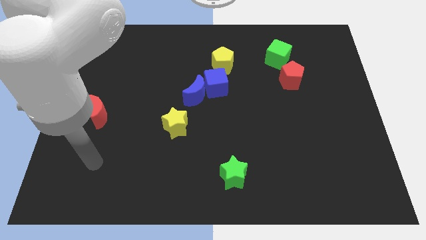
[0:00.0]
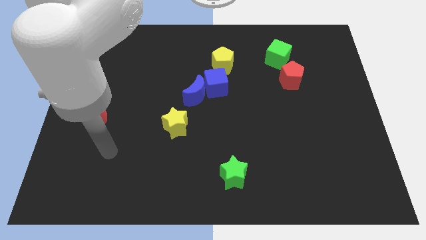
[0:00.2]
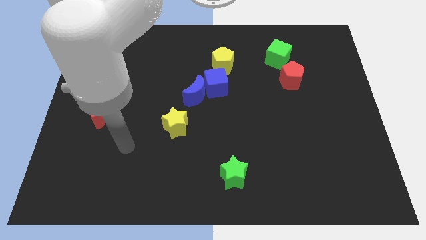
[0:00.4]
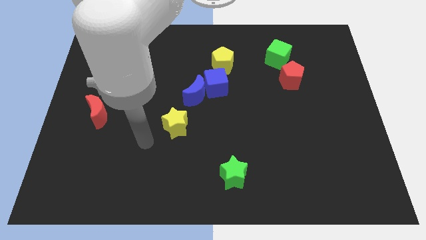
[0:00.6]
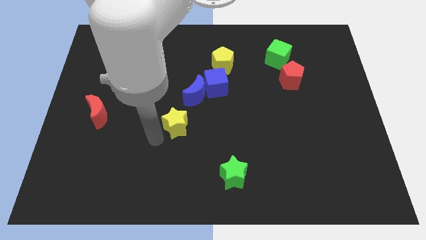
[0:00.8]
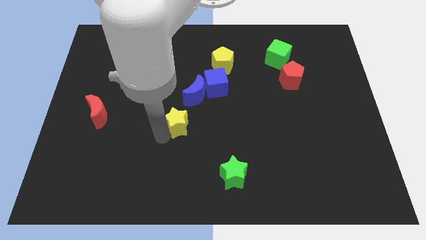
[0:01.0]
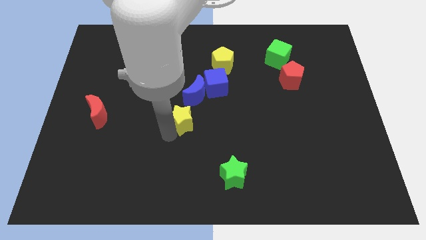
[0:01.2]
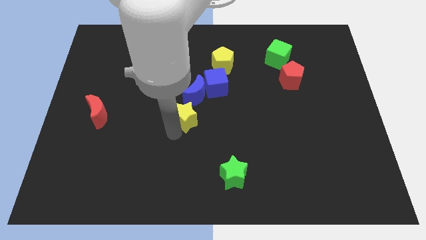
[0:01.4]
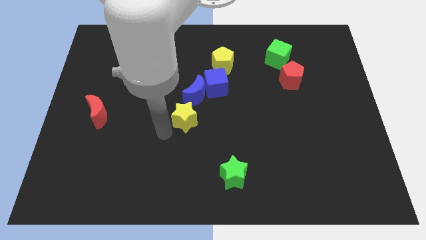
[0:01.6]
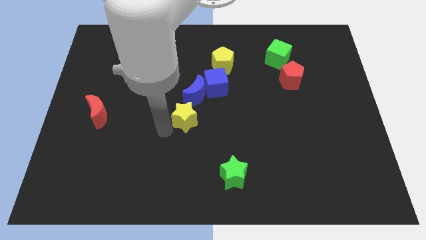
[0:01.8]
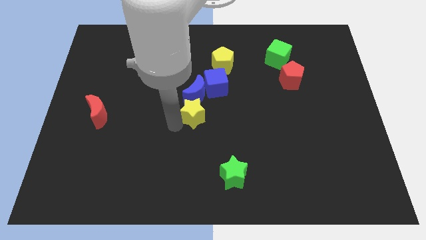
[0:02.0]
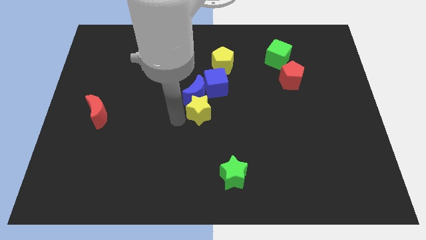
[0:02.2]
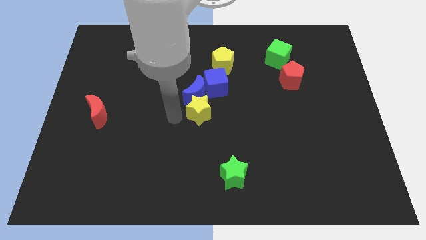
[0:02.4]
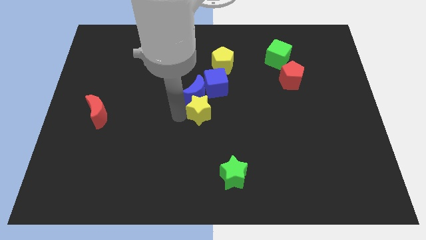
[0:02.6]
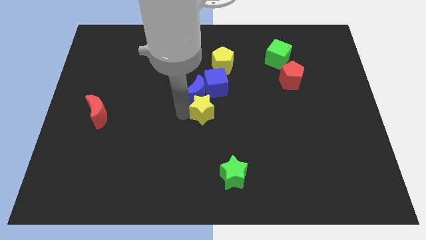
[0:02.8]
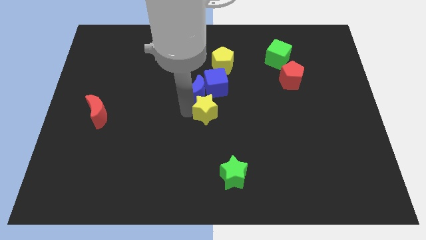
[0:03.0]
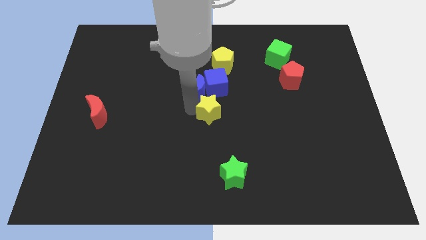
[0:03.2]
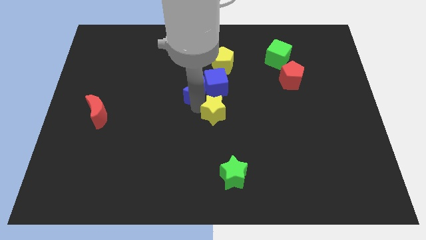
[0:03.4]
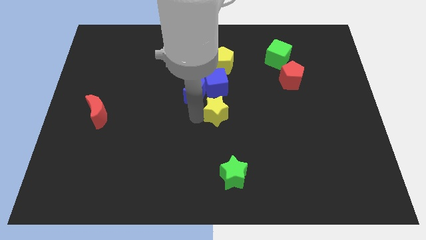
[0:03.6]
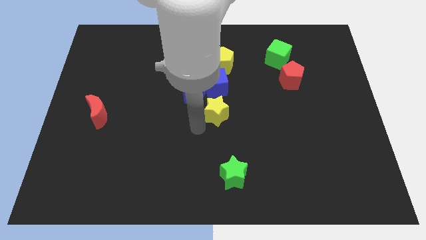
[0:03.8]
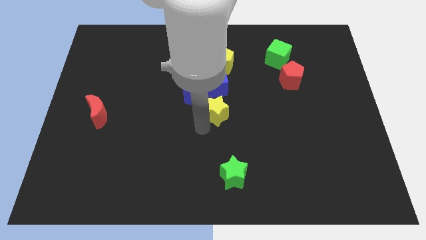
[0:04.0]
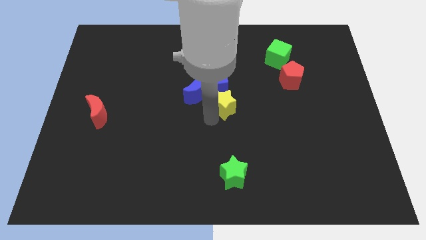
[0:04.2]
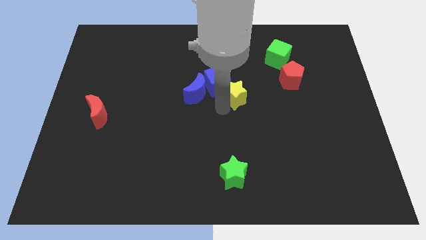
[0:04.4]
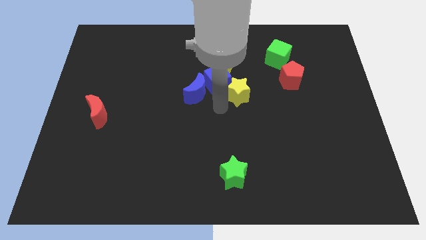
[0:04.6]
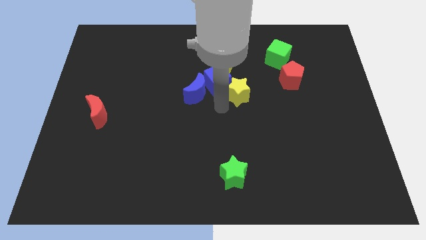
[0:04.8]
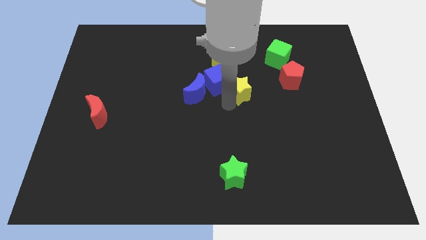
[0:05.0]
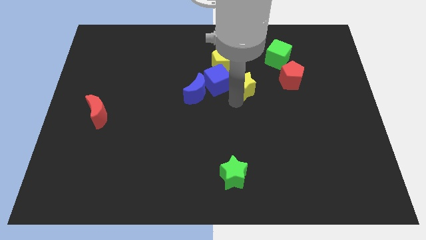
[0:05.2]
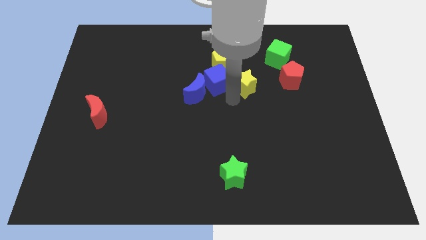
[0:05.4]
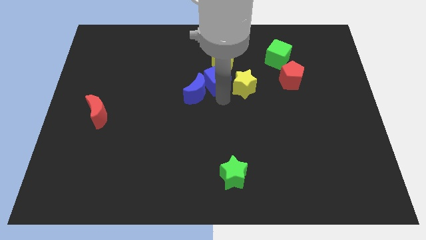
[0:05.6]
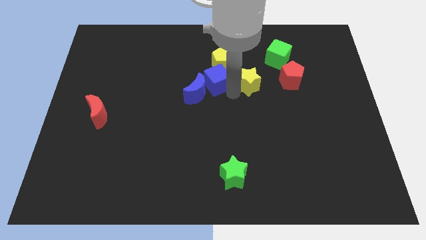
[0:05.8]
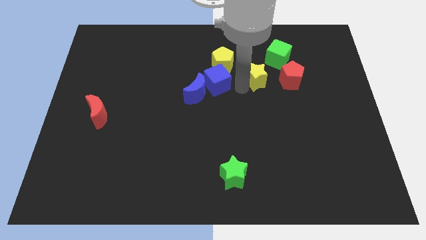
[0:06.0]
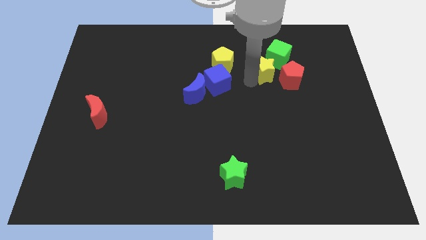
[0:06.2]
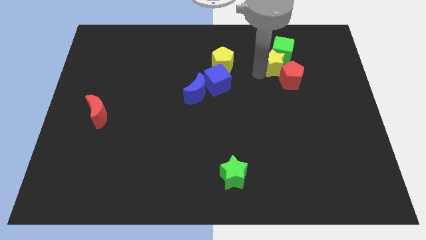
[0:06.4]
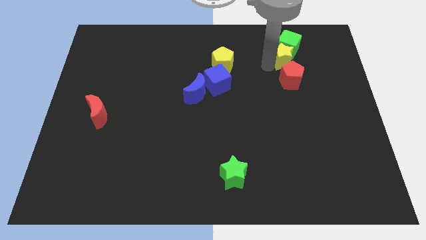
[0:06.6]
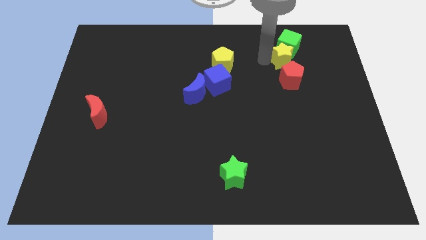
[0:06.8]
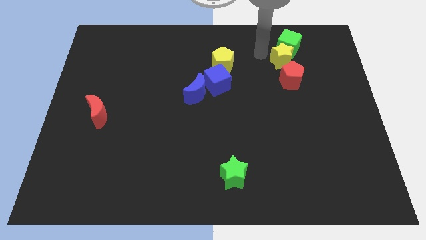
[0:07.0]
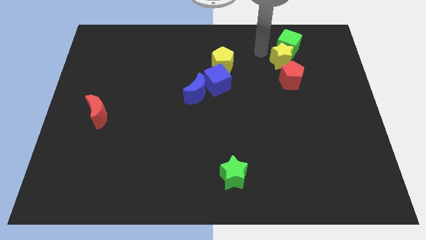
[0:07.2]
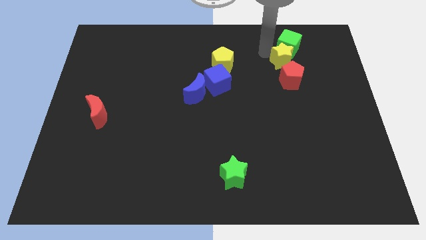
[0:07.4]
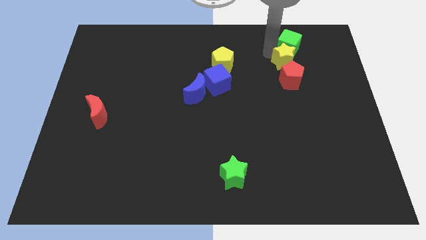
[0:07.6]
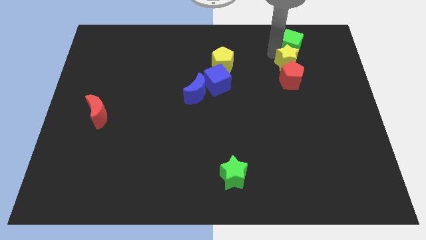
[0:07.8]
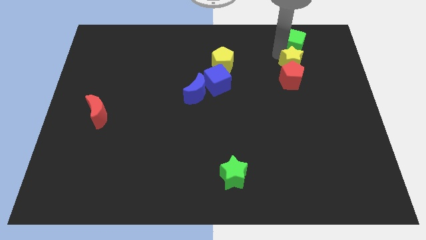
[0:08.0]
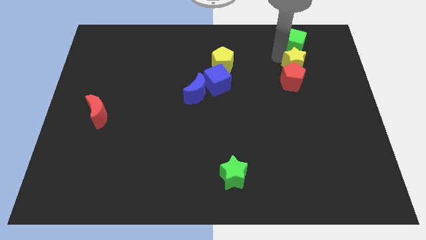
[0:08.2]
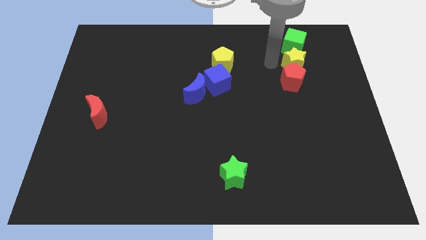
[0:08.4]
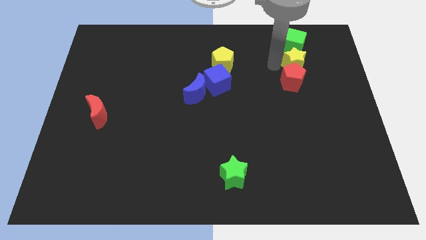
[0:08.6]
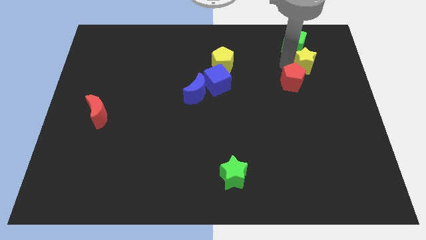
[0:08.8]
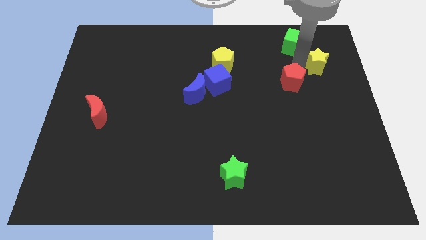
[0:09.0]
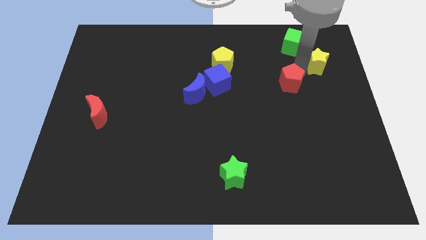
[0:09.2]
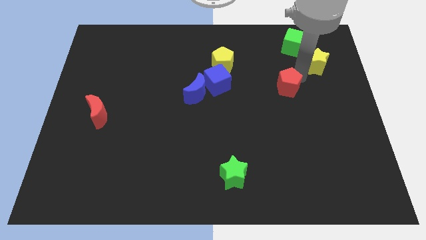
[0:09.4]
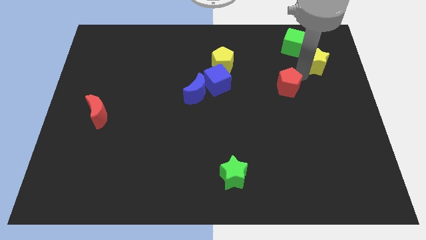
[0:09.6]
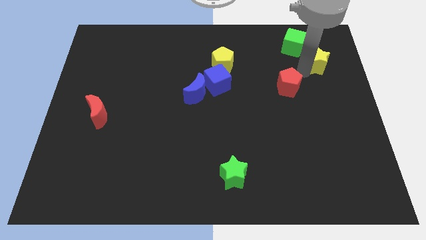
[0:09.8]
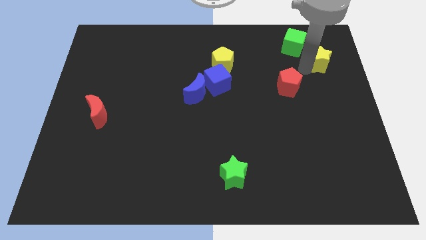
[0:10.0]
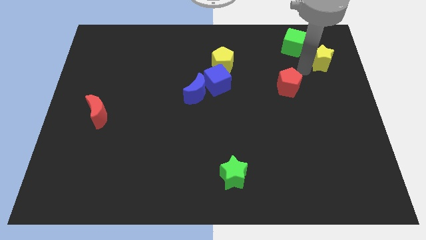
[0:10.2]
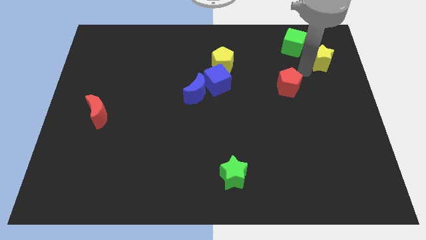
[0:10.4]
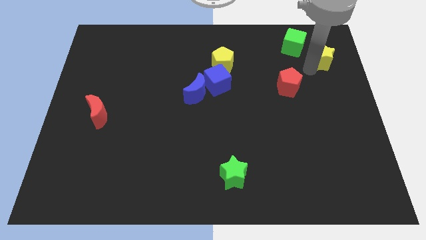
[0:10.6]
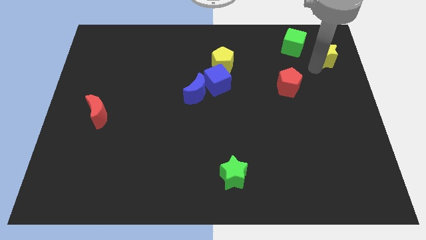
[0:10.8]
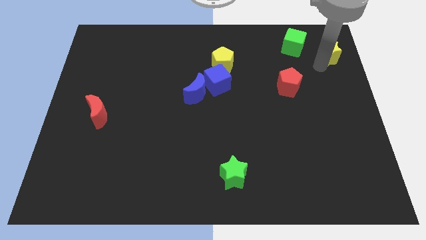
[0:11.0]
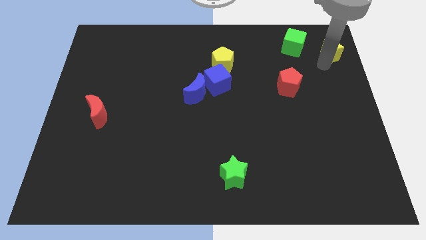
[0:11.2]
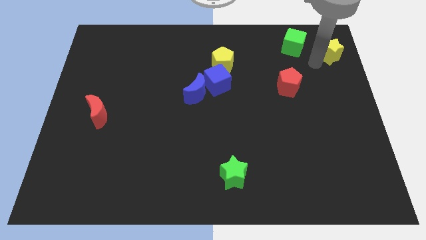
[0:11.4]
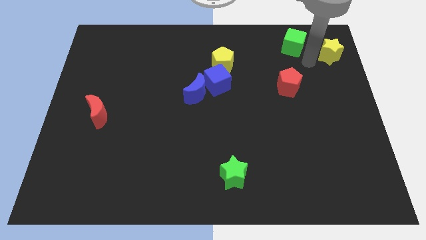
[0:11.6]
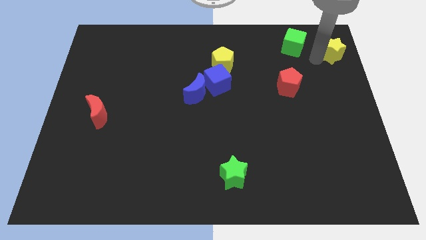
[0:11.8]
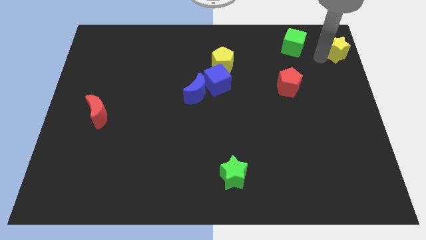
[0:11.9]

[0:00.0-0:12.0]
put the yellow star to the upper right corner

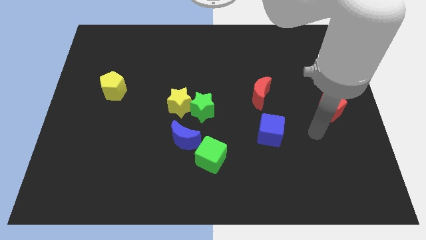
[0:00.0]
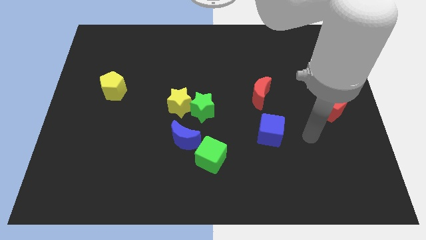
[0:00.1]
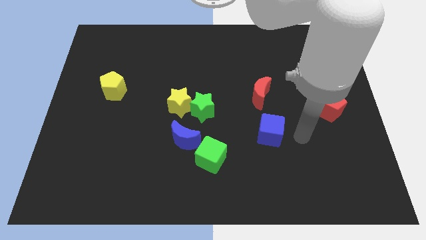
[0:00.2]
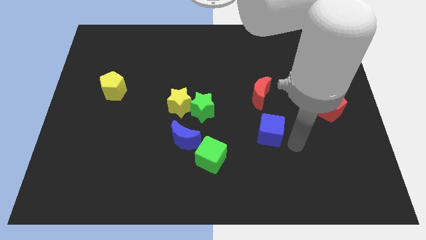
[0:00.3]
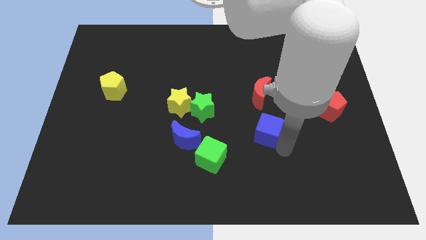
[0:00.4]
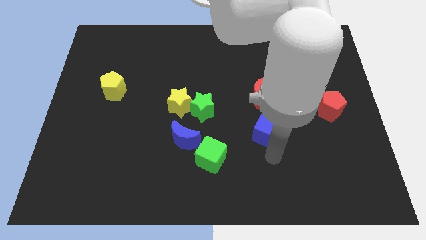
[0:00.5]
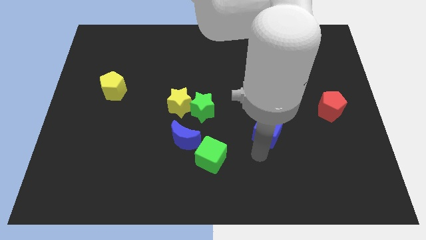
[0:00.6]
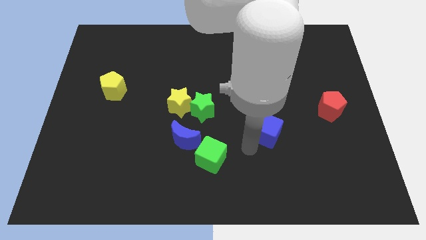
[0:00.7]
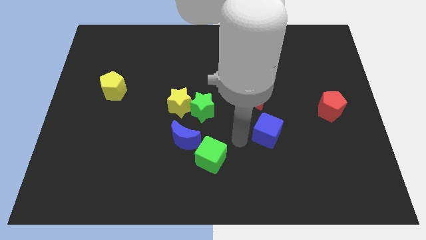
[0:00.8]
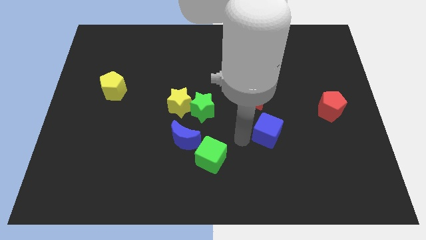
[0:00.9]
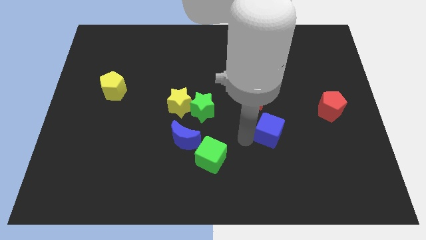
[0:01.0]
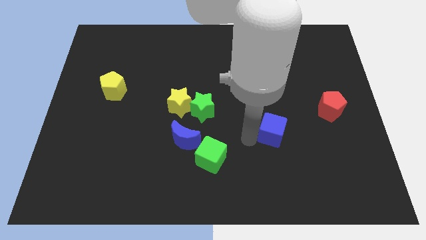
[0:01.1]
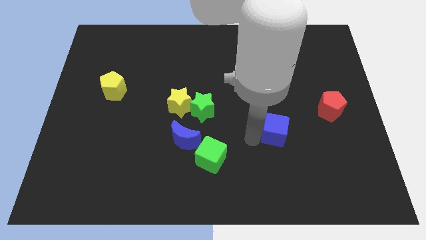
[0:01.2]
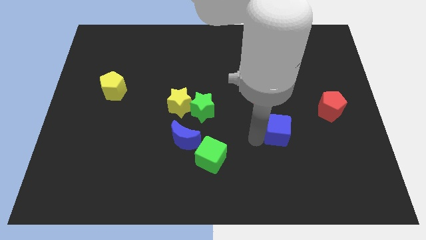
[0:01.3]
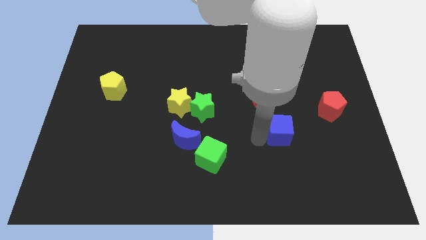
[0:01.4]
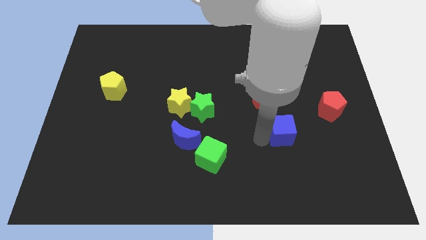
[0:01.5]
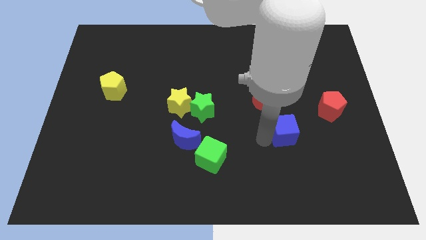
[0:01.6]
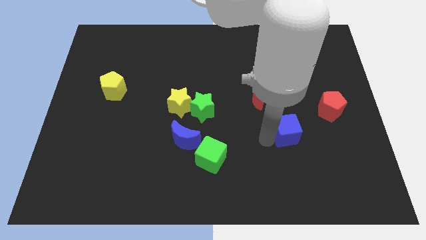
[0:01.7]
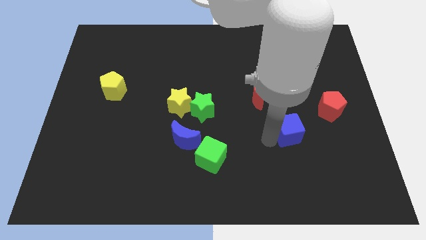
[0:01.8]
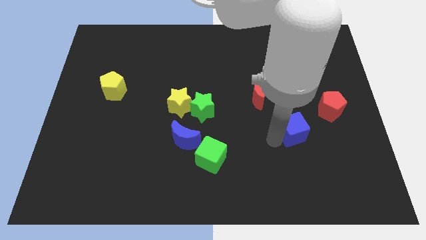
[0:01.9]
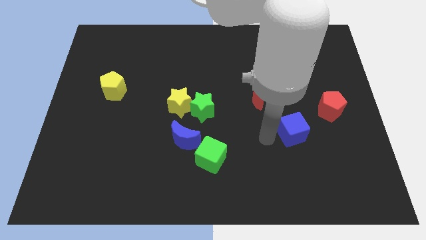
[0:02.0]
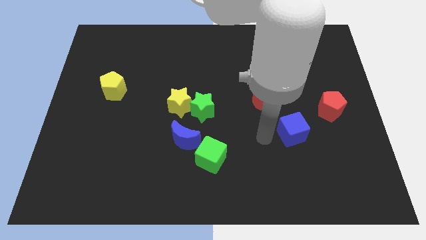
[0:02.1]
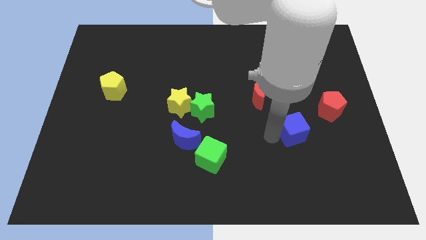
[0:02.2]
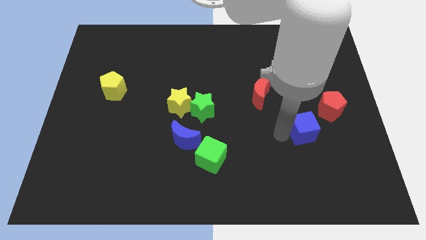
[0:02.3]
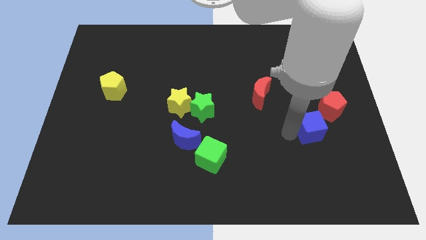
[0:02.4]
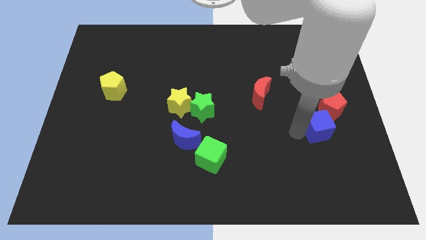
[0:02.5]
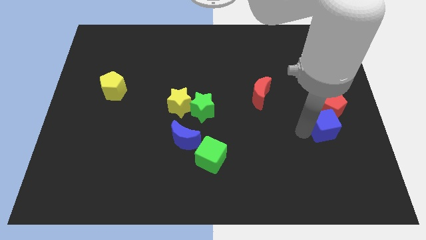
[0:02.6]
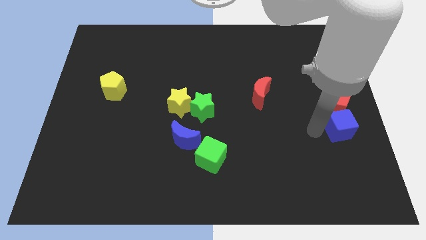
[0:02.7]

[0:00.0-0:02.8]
slide the blue cube to the center right
